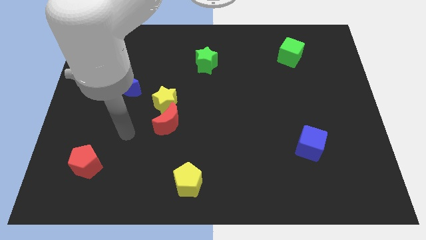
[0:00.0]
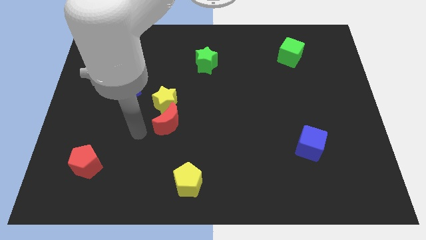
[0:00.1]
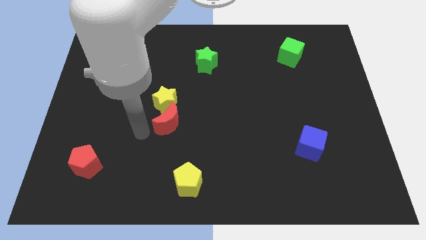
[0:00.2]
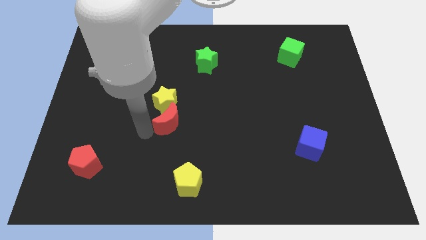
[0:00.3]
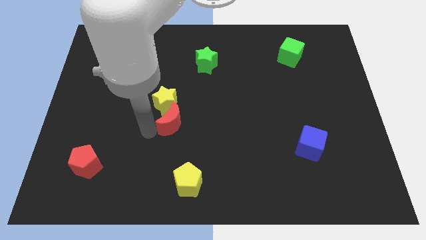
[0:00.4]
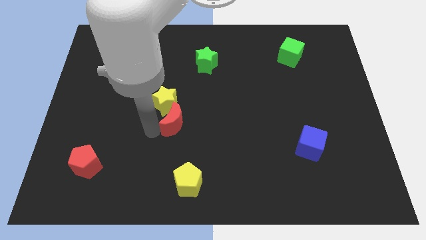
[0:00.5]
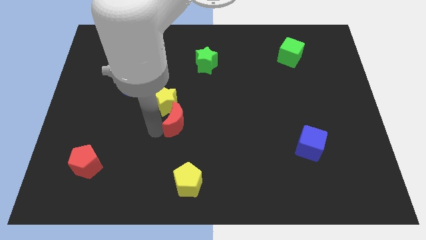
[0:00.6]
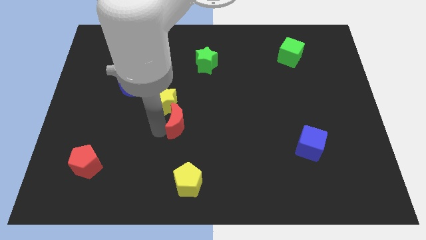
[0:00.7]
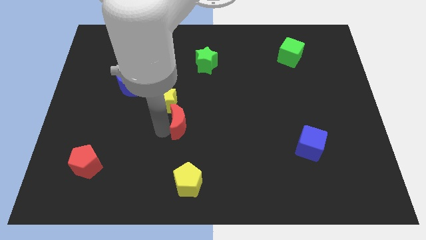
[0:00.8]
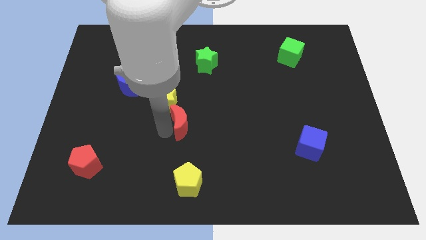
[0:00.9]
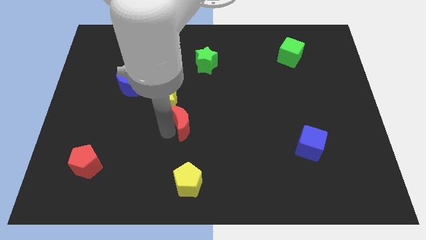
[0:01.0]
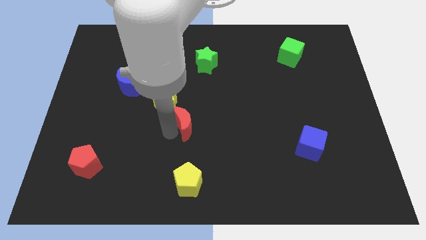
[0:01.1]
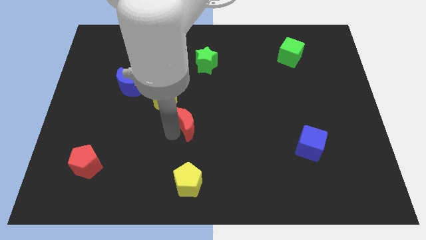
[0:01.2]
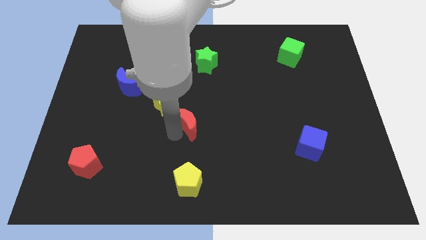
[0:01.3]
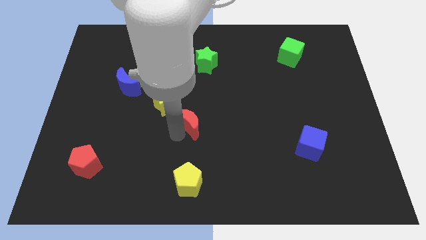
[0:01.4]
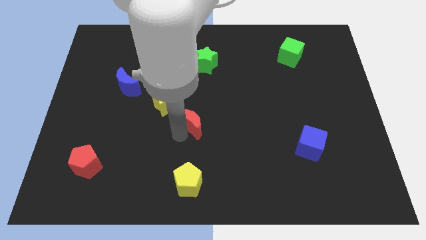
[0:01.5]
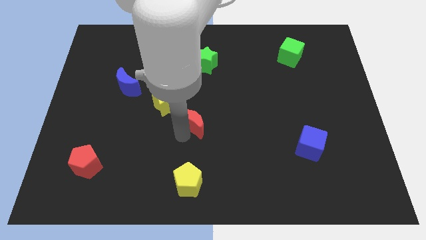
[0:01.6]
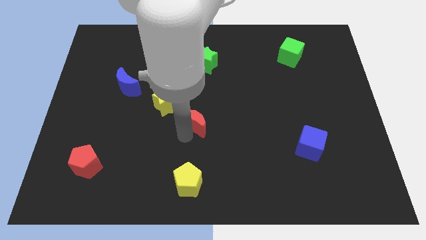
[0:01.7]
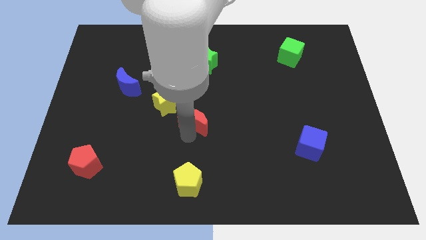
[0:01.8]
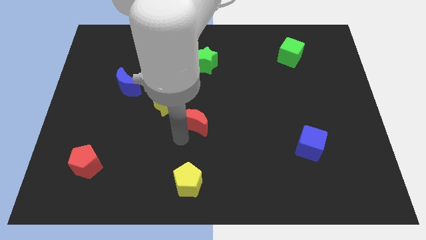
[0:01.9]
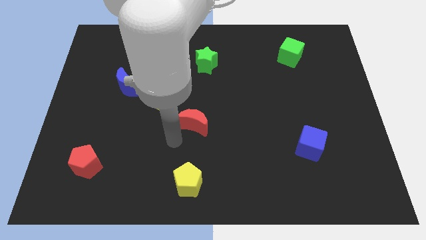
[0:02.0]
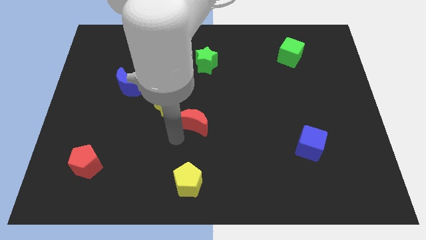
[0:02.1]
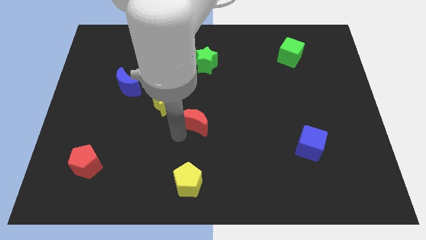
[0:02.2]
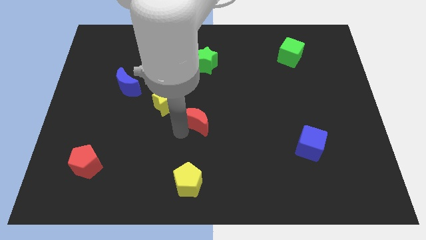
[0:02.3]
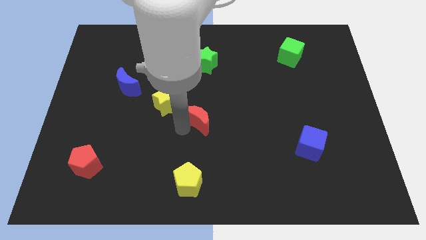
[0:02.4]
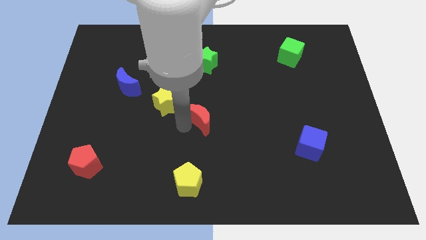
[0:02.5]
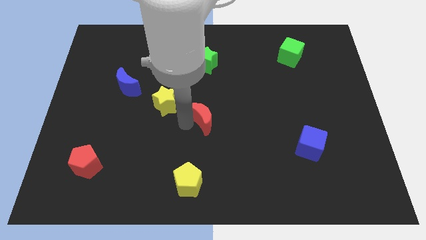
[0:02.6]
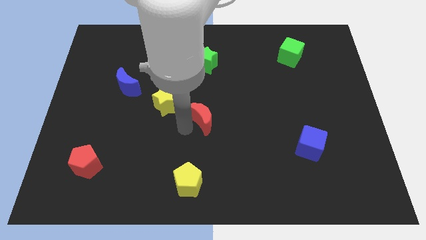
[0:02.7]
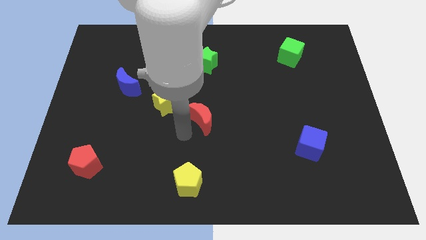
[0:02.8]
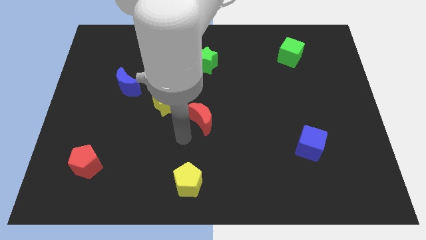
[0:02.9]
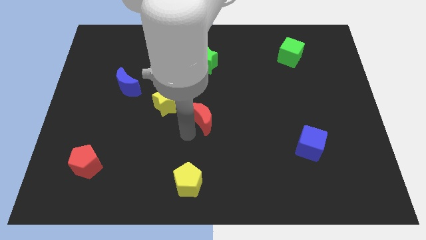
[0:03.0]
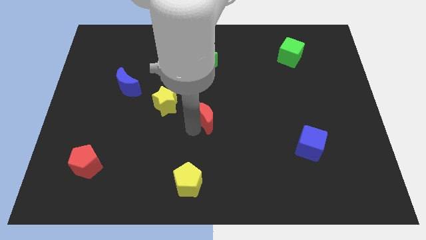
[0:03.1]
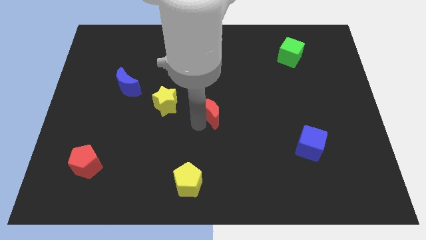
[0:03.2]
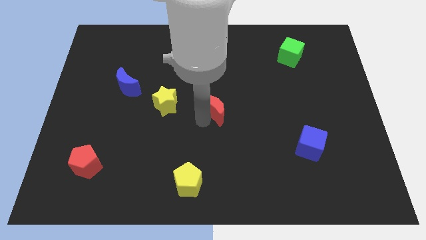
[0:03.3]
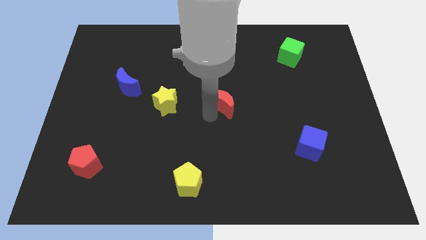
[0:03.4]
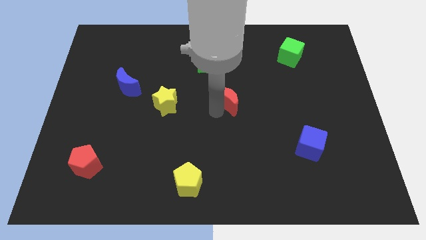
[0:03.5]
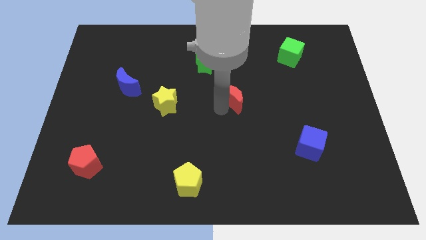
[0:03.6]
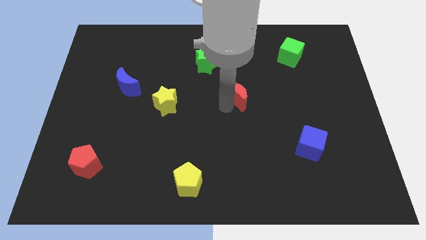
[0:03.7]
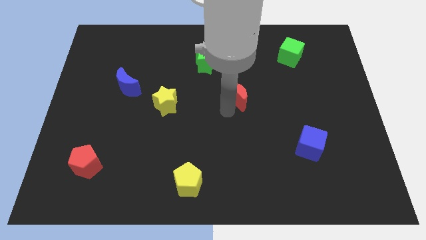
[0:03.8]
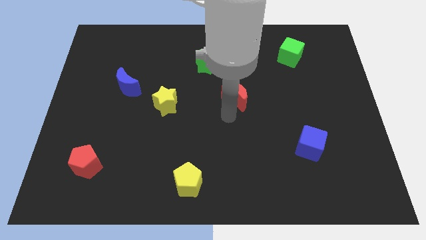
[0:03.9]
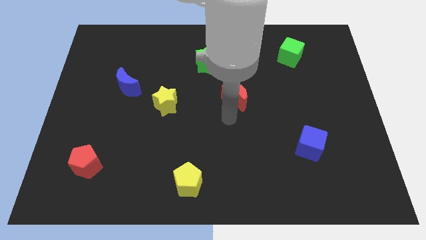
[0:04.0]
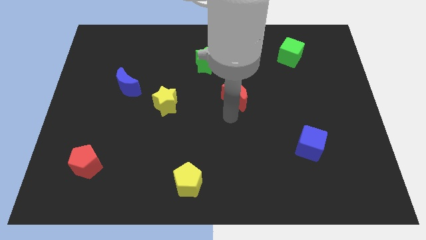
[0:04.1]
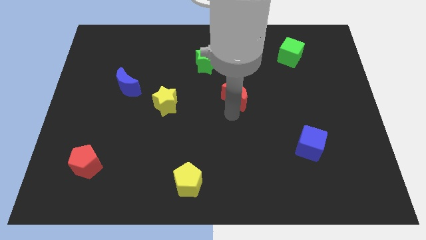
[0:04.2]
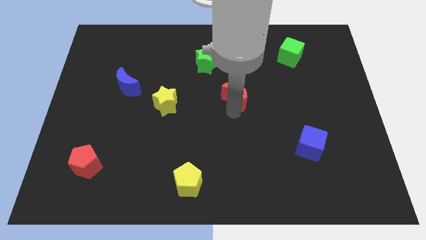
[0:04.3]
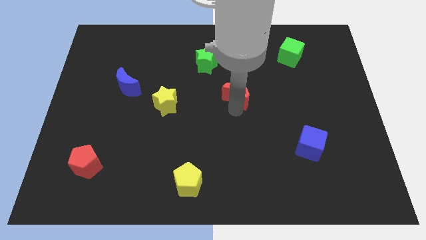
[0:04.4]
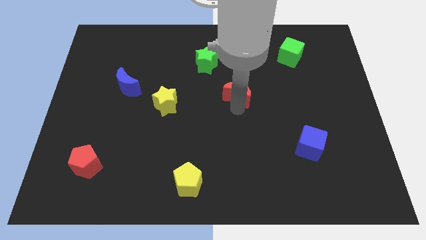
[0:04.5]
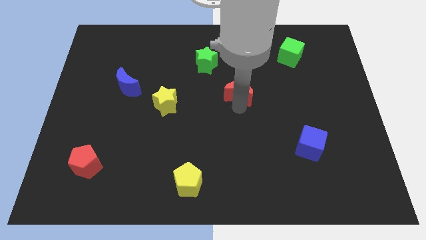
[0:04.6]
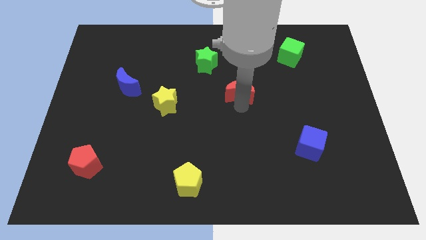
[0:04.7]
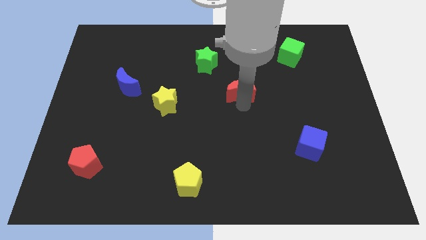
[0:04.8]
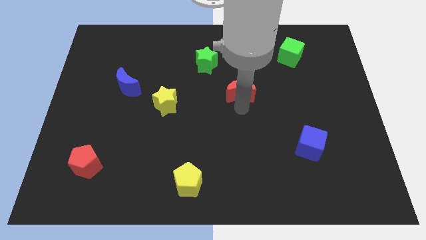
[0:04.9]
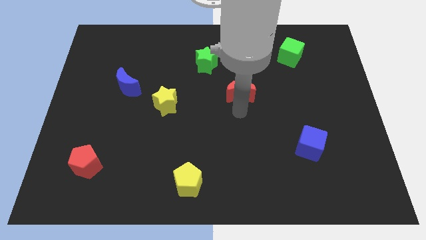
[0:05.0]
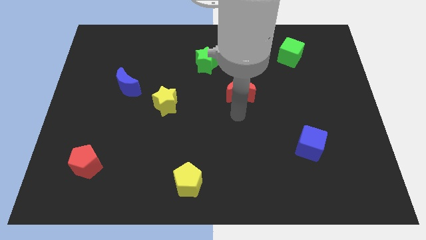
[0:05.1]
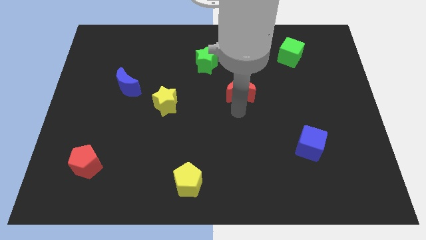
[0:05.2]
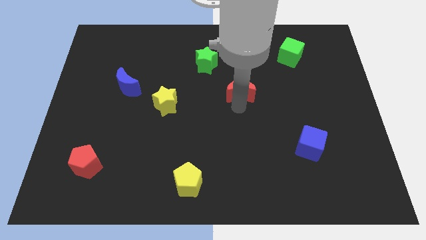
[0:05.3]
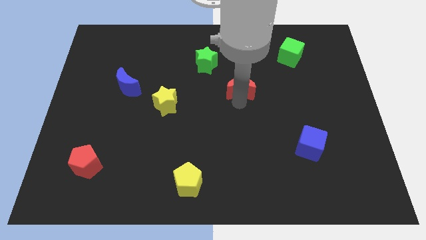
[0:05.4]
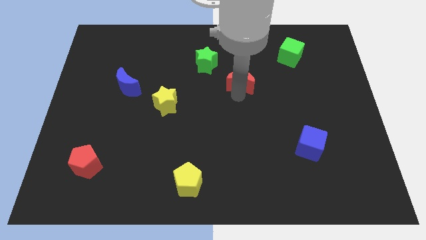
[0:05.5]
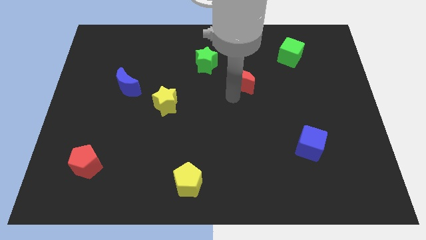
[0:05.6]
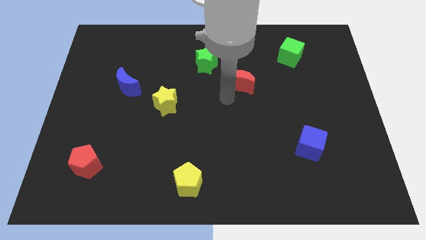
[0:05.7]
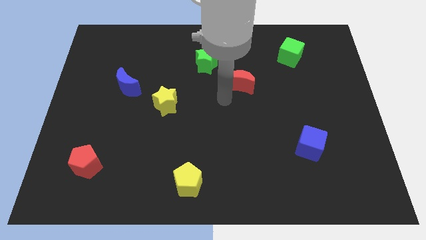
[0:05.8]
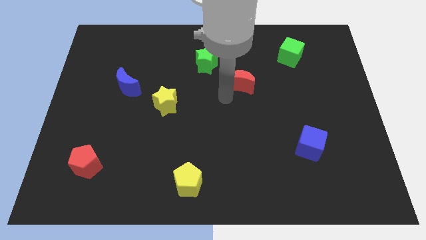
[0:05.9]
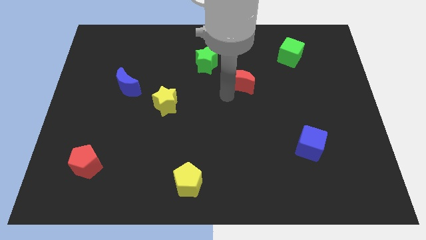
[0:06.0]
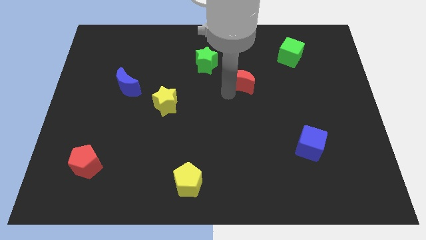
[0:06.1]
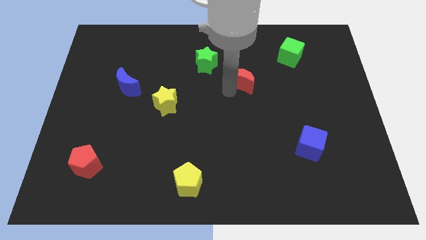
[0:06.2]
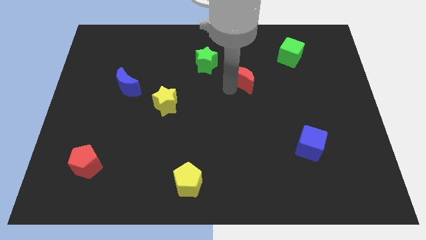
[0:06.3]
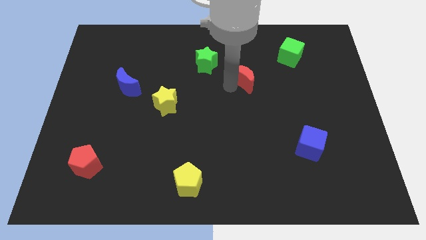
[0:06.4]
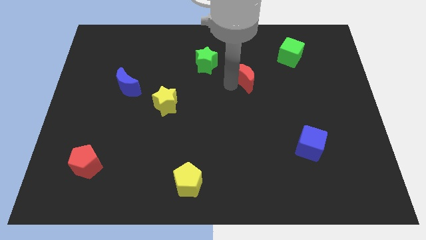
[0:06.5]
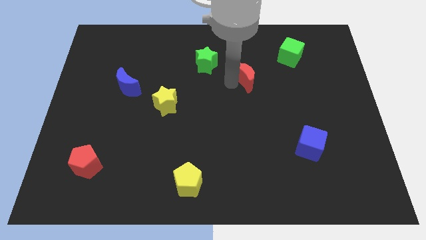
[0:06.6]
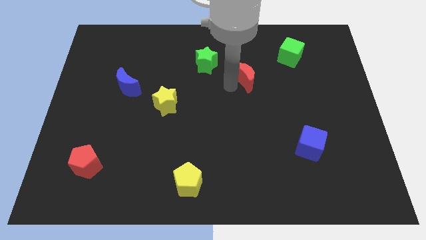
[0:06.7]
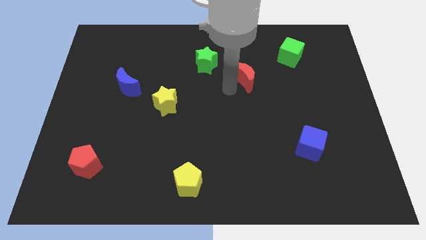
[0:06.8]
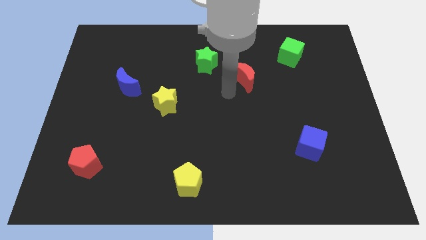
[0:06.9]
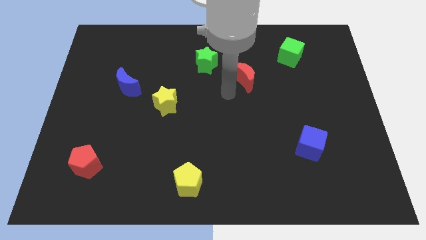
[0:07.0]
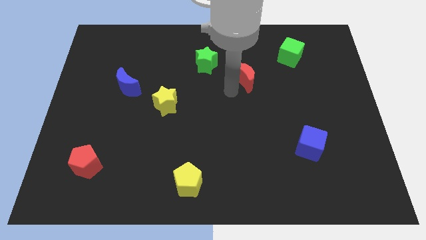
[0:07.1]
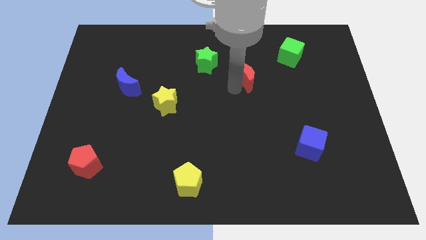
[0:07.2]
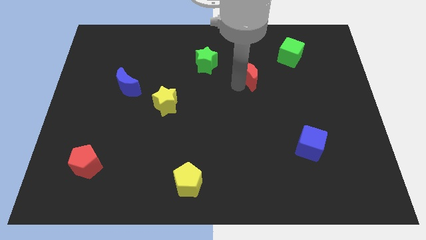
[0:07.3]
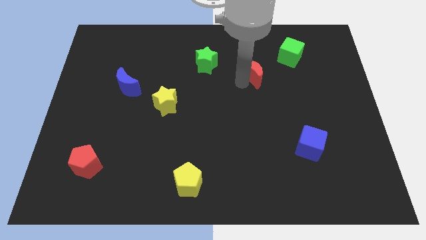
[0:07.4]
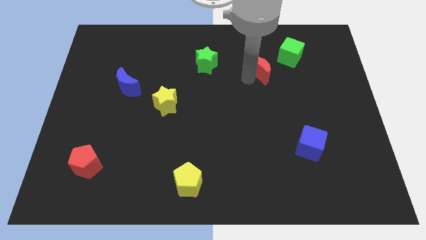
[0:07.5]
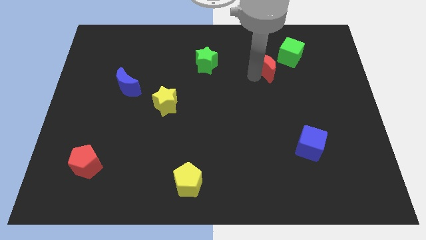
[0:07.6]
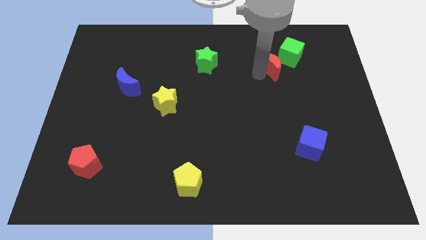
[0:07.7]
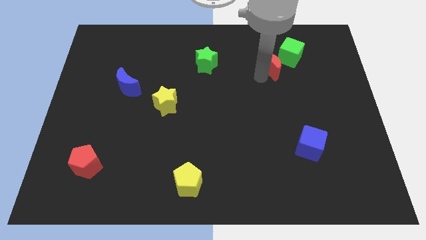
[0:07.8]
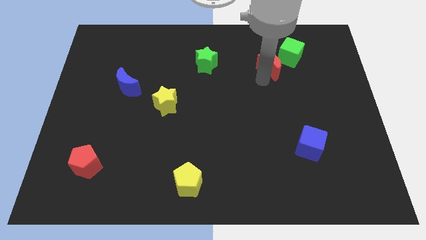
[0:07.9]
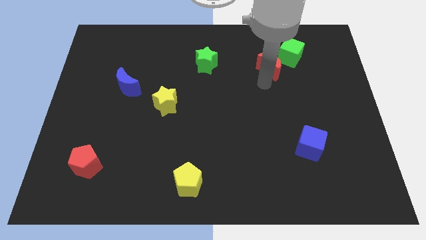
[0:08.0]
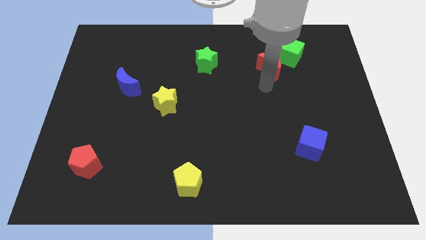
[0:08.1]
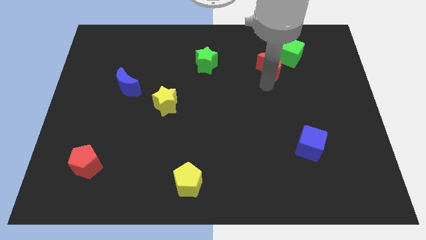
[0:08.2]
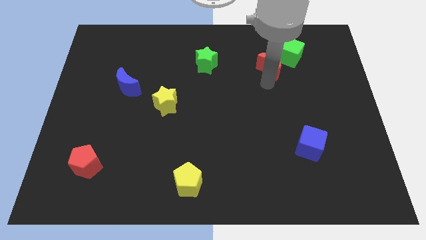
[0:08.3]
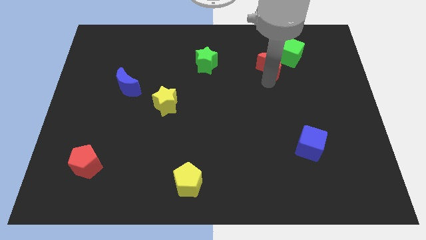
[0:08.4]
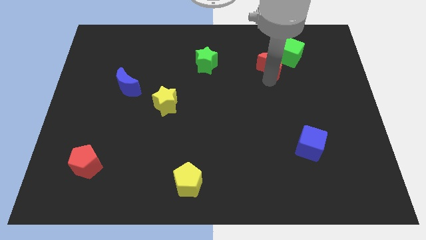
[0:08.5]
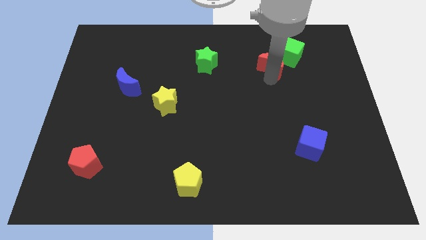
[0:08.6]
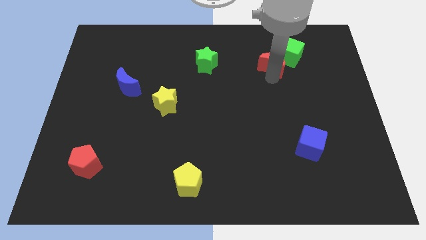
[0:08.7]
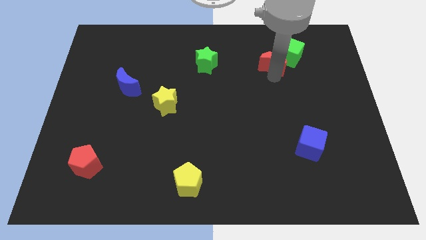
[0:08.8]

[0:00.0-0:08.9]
push the red moon towards the green cube
